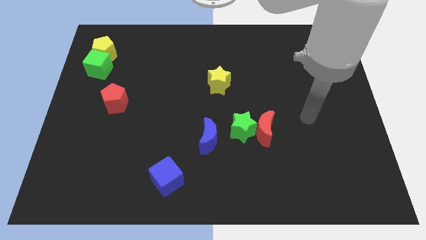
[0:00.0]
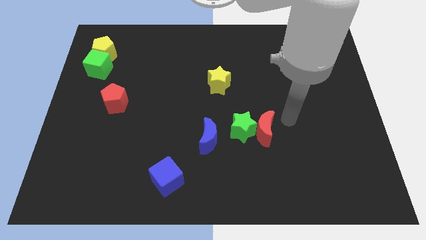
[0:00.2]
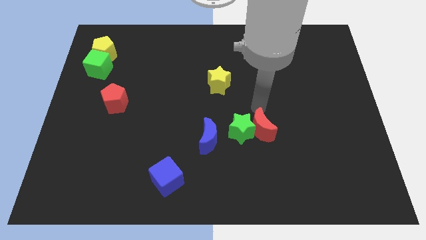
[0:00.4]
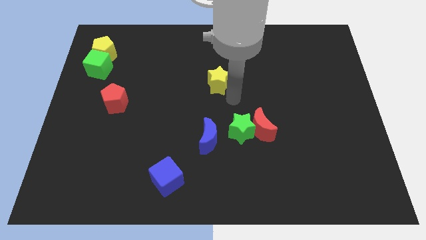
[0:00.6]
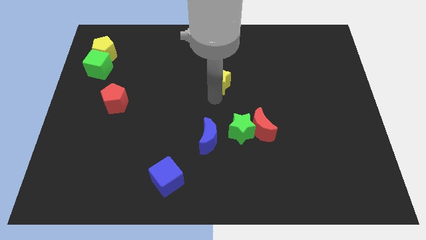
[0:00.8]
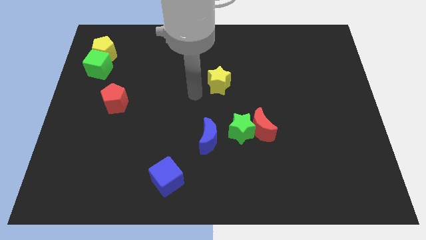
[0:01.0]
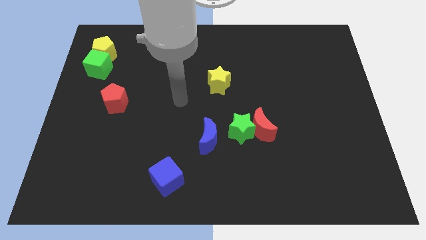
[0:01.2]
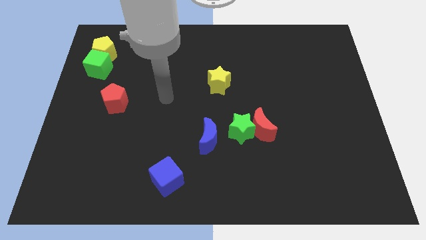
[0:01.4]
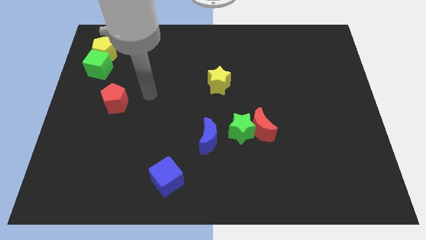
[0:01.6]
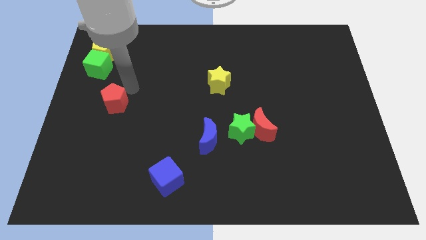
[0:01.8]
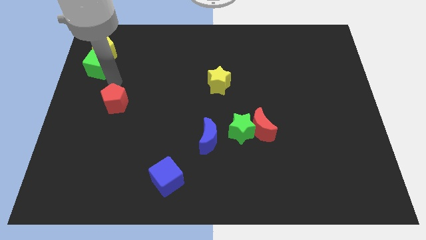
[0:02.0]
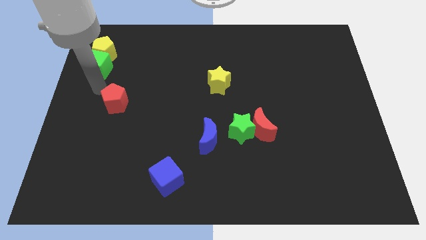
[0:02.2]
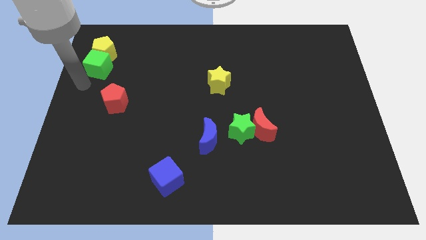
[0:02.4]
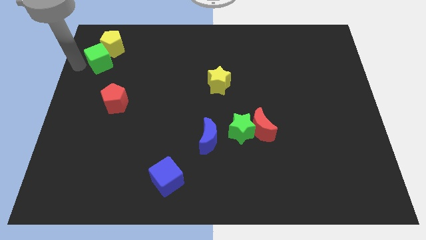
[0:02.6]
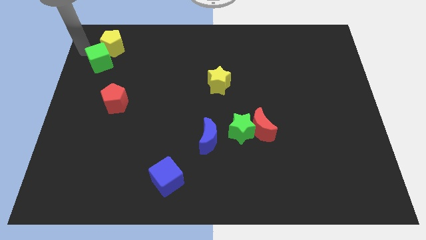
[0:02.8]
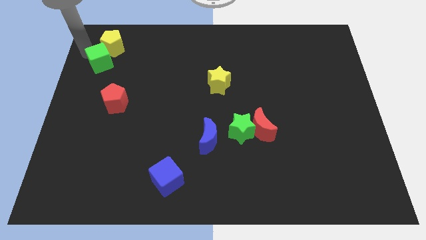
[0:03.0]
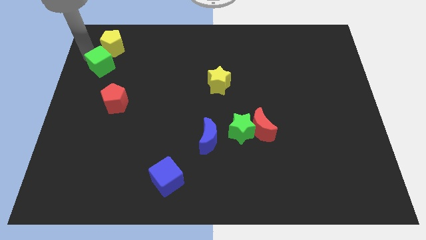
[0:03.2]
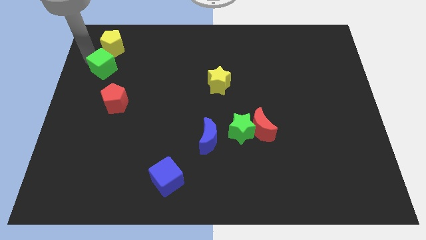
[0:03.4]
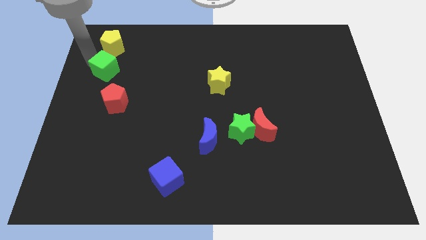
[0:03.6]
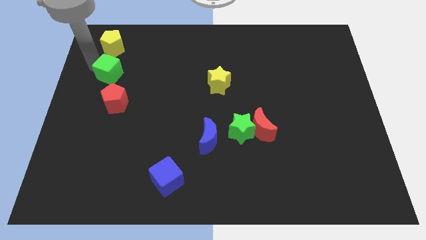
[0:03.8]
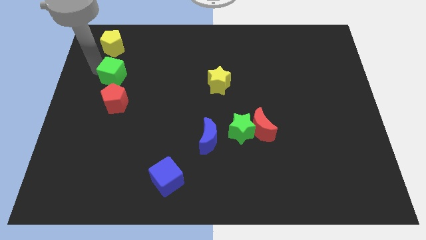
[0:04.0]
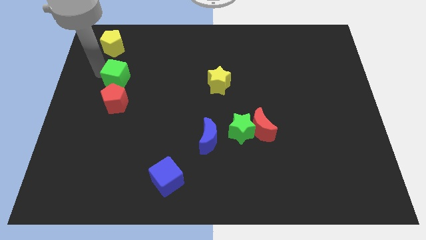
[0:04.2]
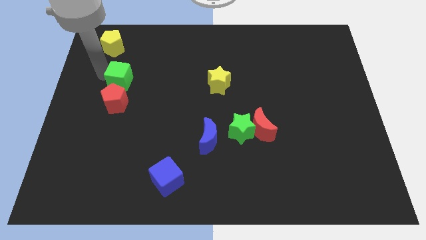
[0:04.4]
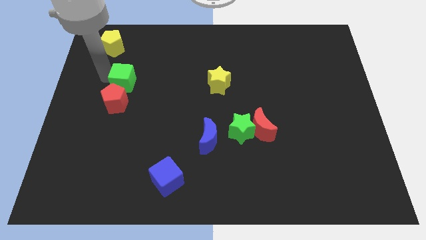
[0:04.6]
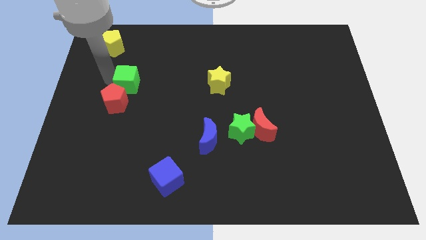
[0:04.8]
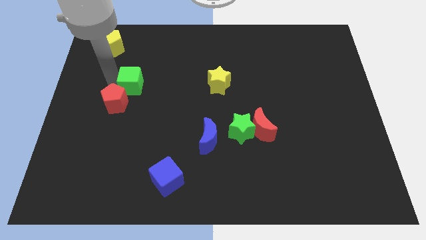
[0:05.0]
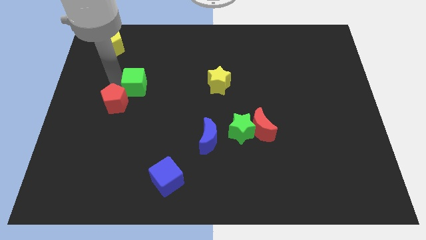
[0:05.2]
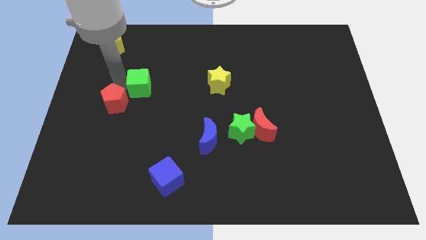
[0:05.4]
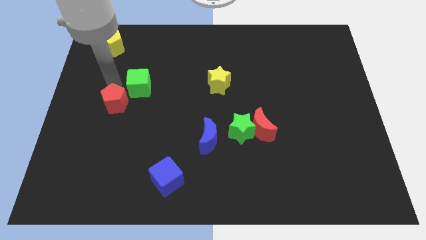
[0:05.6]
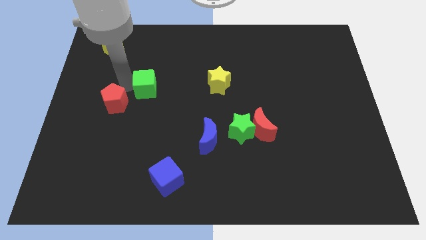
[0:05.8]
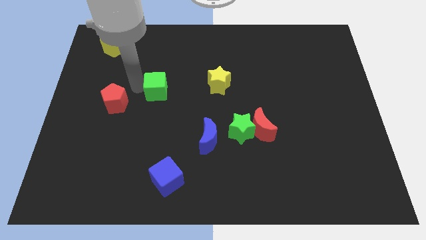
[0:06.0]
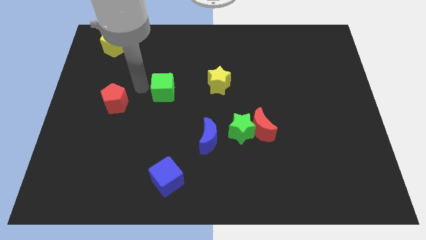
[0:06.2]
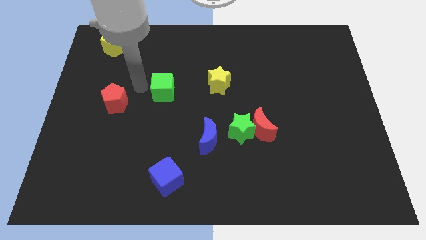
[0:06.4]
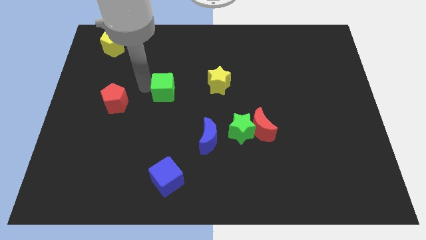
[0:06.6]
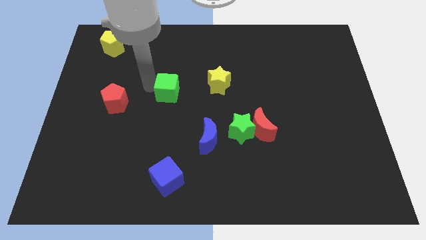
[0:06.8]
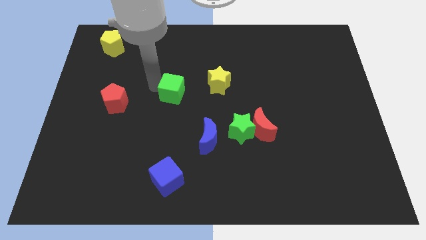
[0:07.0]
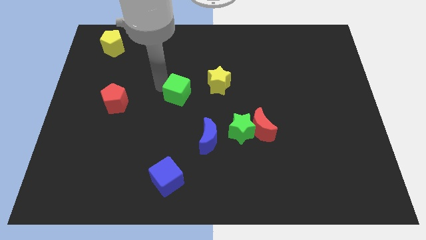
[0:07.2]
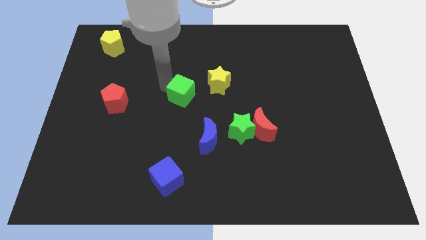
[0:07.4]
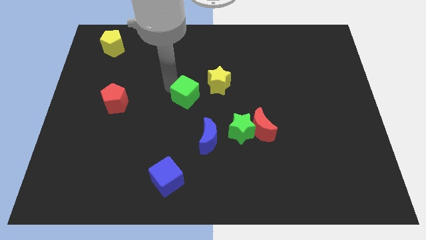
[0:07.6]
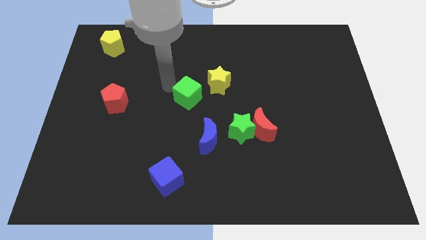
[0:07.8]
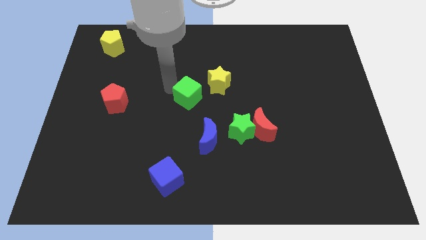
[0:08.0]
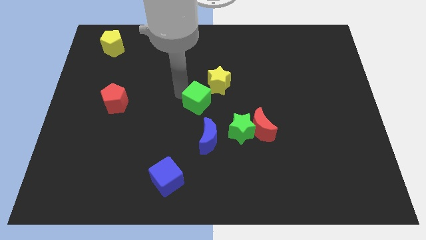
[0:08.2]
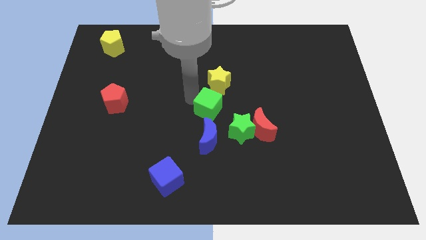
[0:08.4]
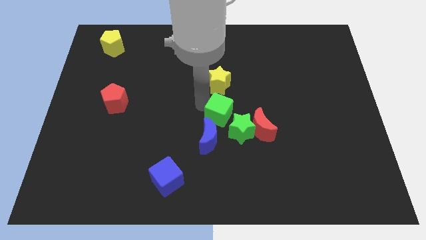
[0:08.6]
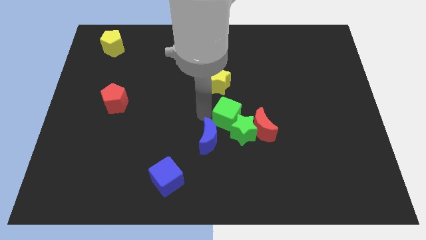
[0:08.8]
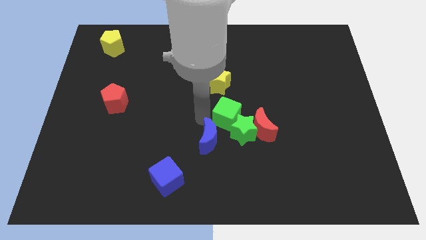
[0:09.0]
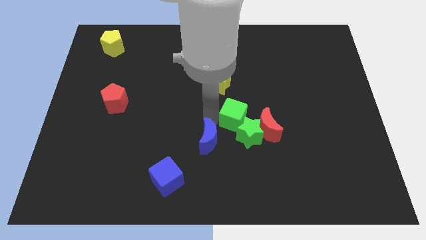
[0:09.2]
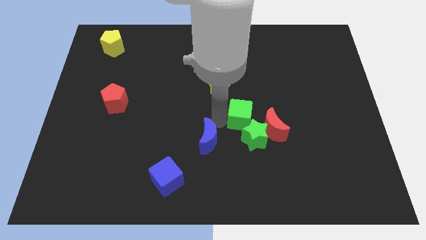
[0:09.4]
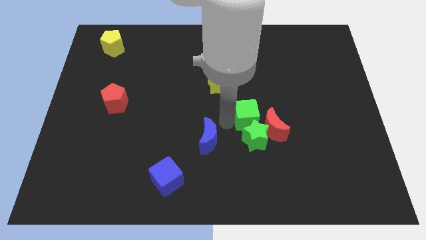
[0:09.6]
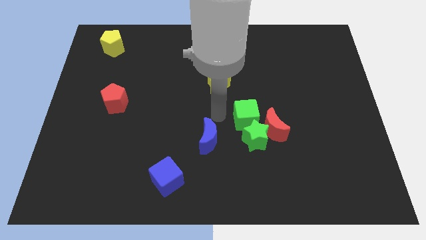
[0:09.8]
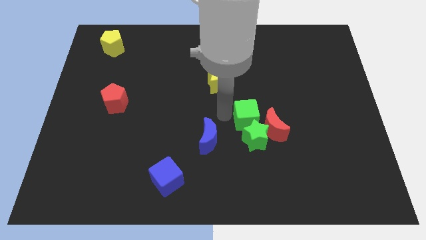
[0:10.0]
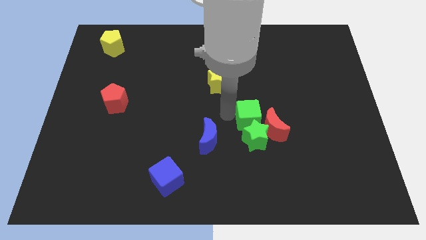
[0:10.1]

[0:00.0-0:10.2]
slide the green cube to the top right side of the green star

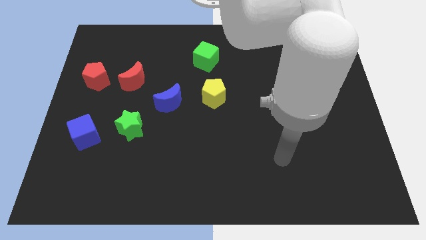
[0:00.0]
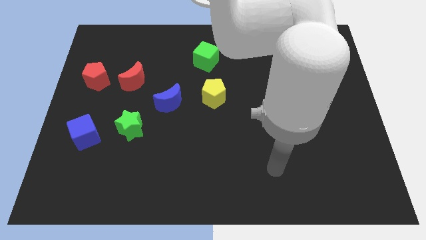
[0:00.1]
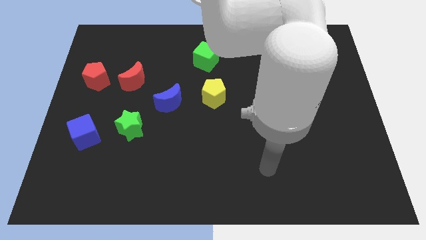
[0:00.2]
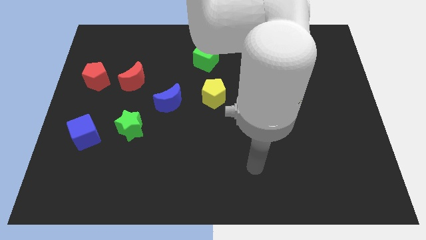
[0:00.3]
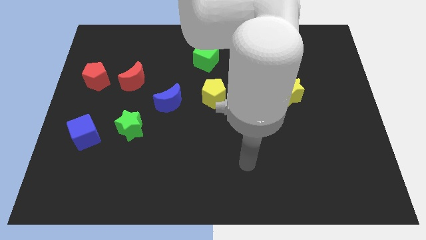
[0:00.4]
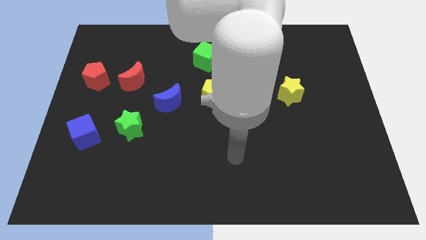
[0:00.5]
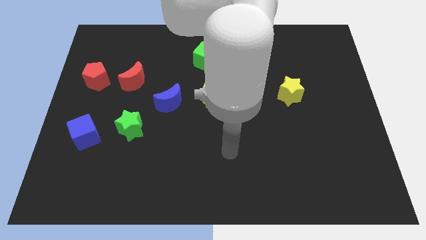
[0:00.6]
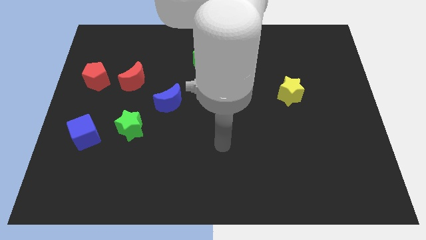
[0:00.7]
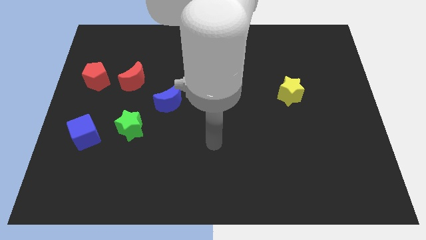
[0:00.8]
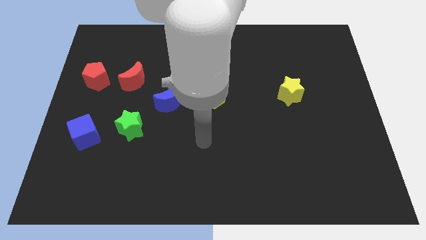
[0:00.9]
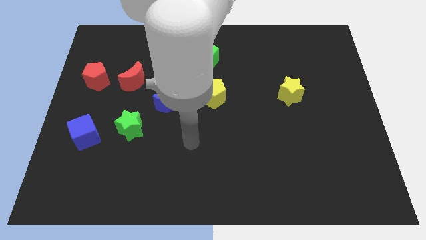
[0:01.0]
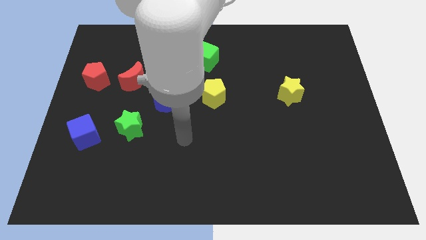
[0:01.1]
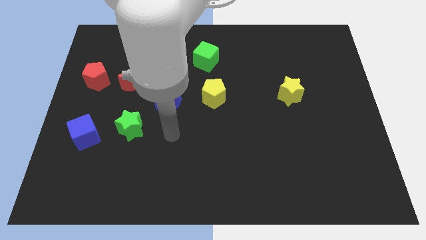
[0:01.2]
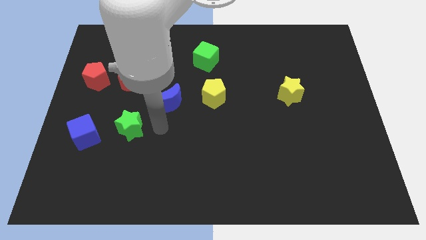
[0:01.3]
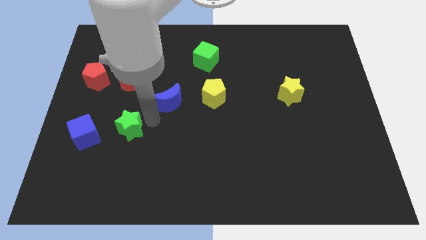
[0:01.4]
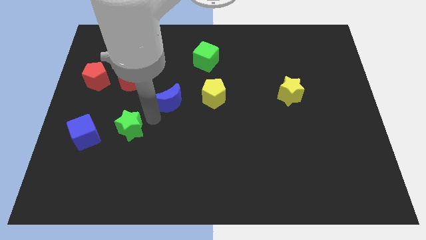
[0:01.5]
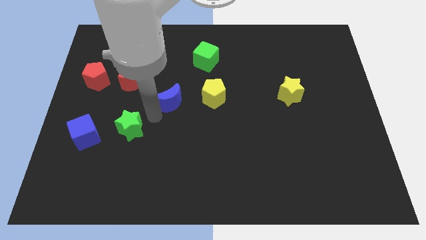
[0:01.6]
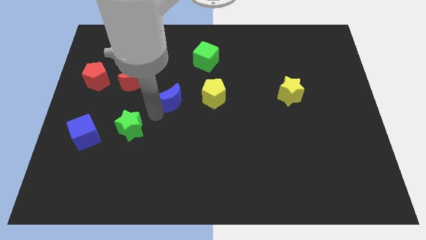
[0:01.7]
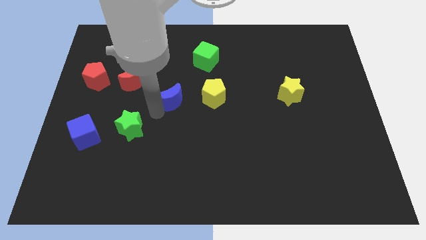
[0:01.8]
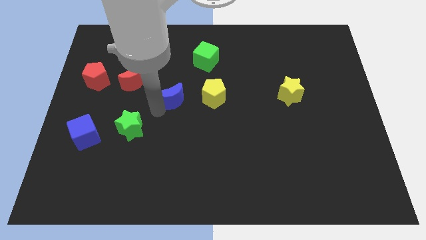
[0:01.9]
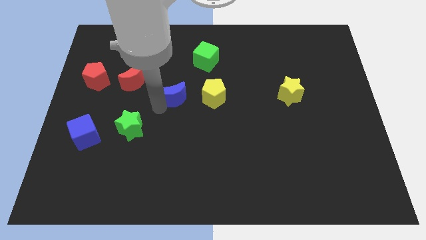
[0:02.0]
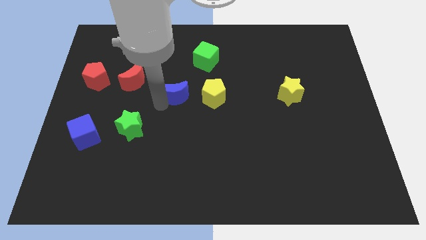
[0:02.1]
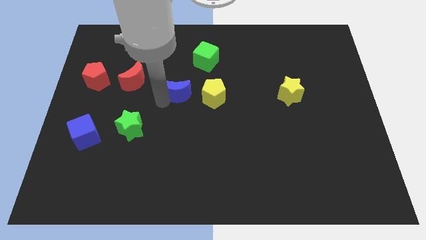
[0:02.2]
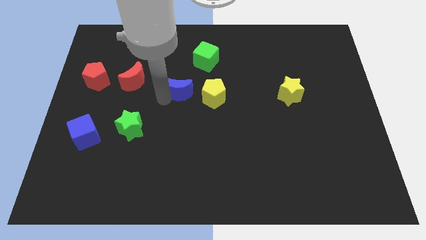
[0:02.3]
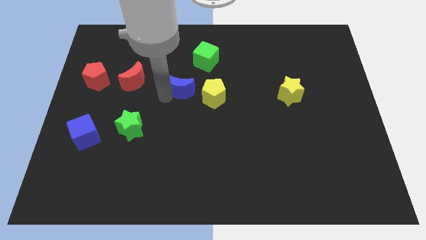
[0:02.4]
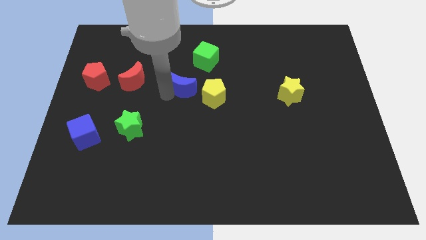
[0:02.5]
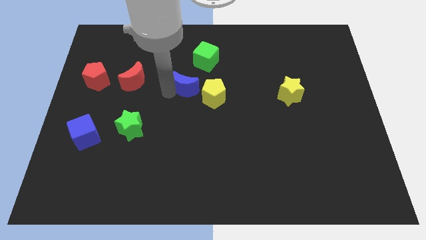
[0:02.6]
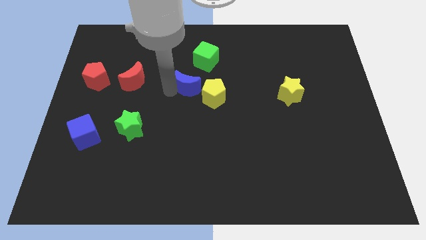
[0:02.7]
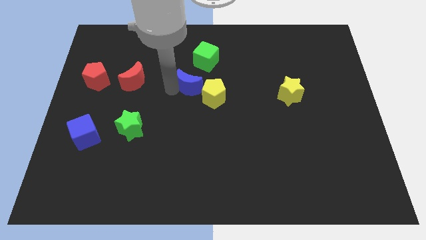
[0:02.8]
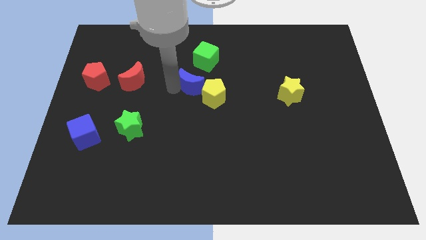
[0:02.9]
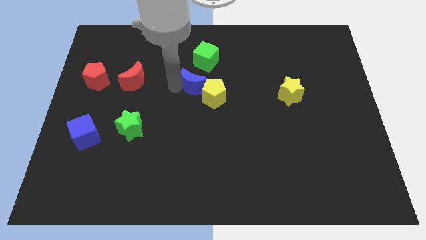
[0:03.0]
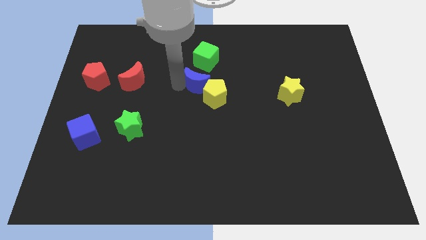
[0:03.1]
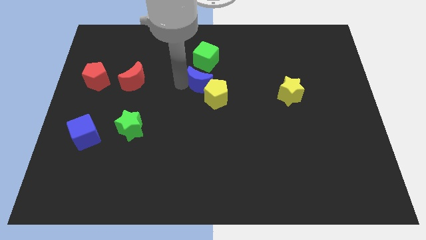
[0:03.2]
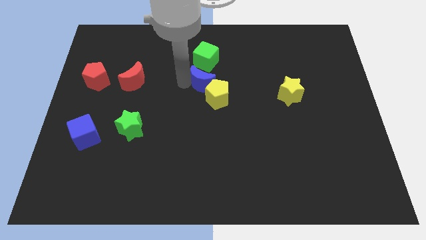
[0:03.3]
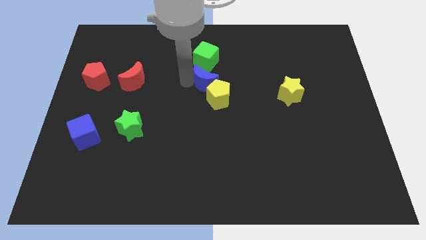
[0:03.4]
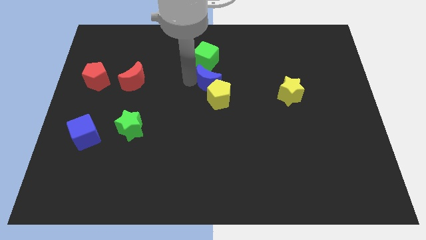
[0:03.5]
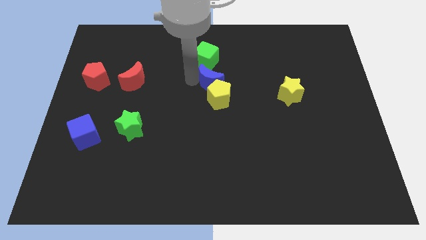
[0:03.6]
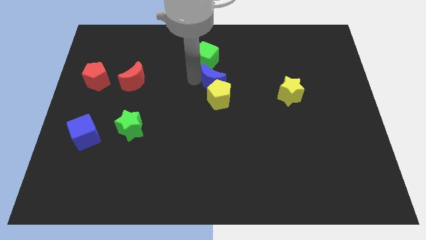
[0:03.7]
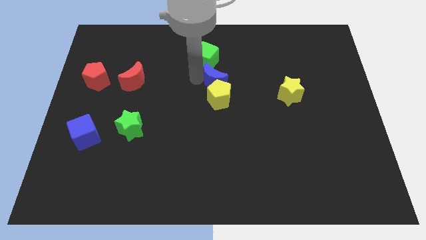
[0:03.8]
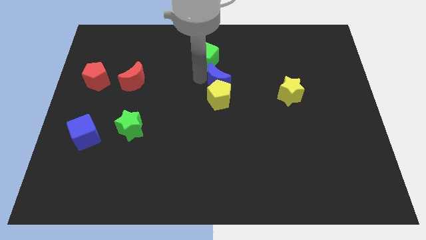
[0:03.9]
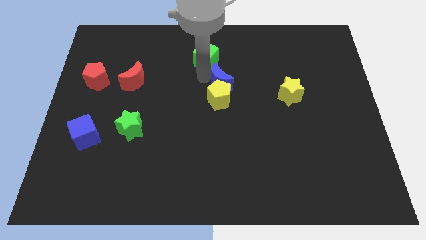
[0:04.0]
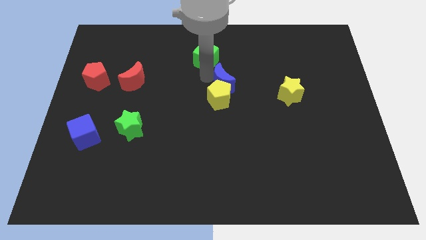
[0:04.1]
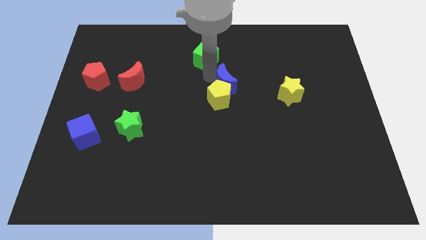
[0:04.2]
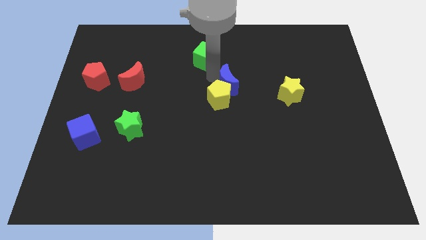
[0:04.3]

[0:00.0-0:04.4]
push the blue moon left of the yellow star
